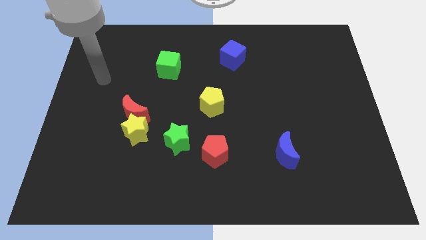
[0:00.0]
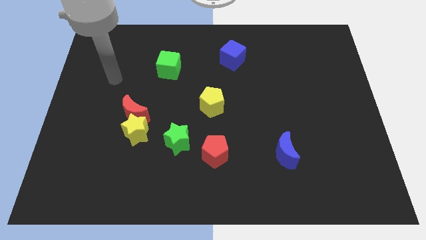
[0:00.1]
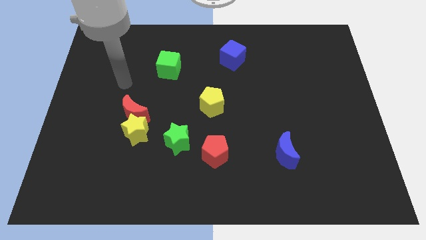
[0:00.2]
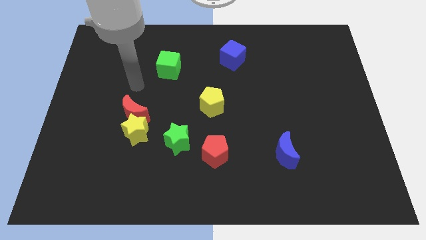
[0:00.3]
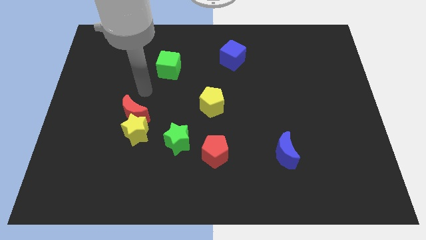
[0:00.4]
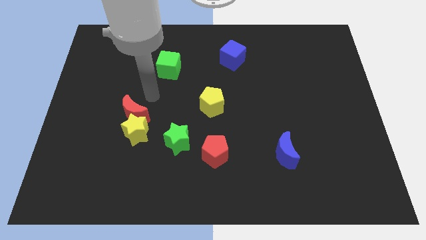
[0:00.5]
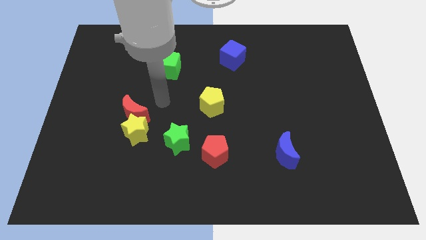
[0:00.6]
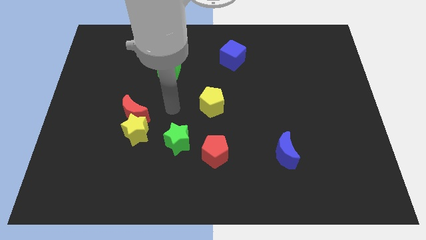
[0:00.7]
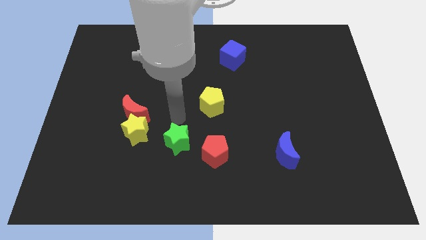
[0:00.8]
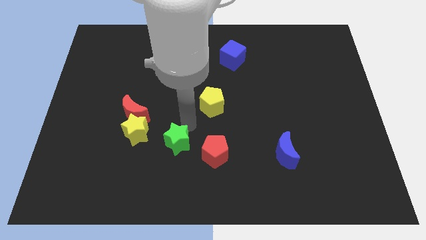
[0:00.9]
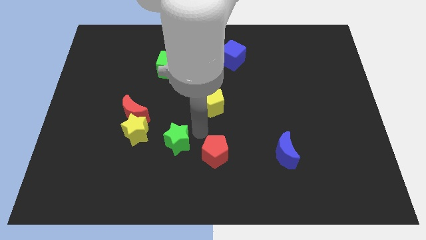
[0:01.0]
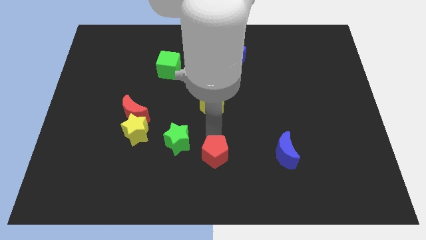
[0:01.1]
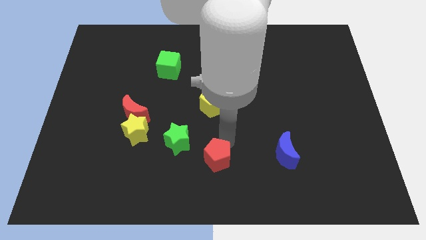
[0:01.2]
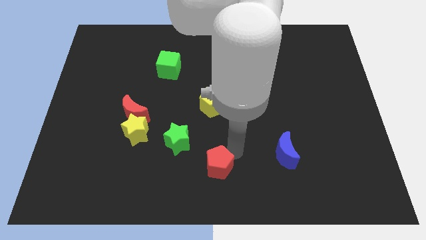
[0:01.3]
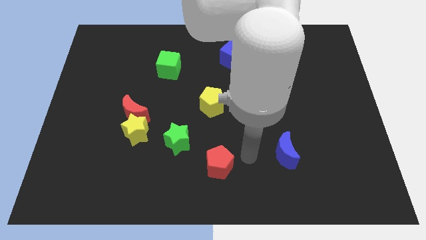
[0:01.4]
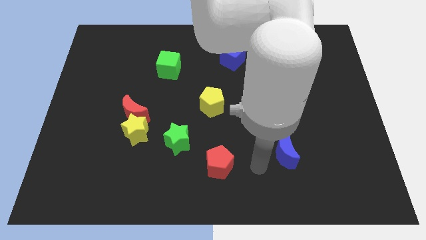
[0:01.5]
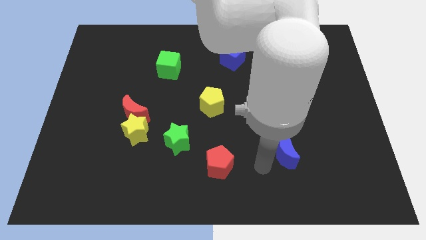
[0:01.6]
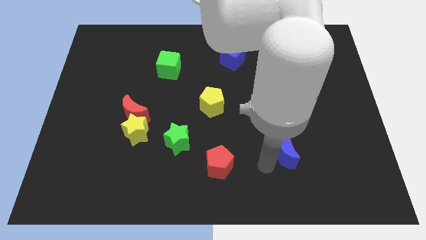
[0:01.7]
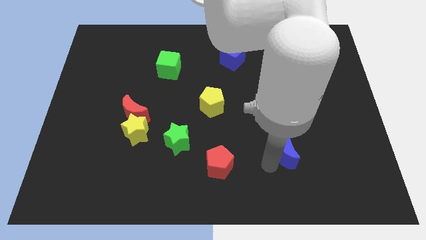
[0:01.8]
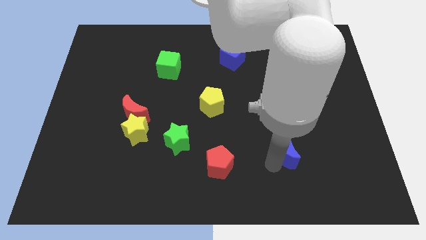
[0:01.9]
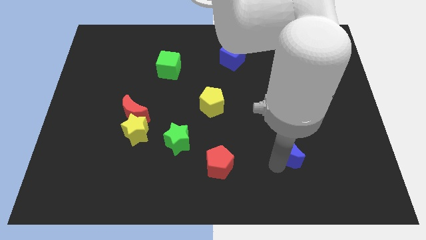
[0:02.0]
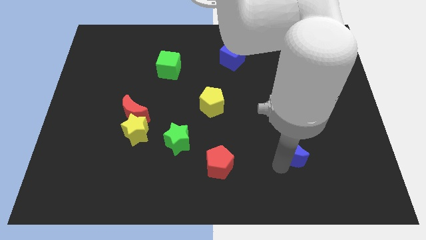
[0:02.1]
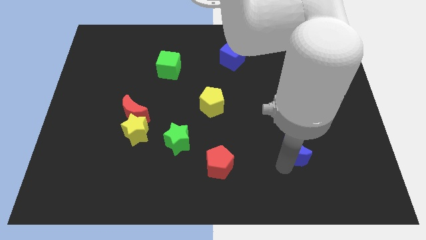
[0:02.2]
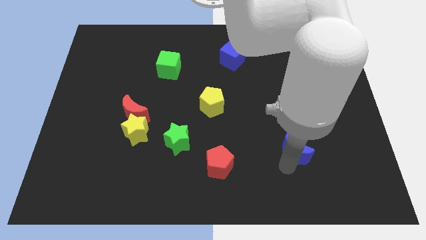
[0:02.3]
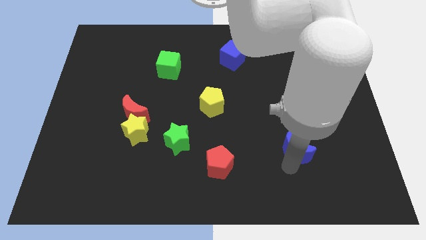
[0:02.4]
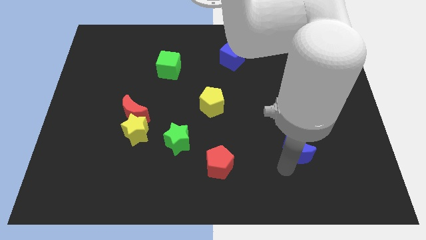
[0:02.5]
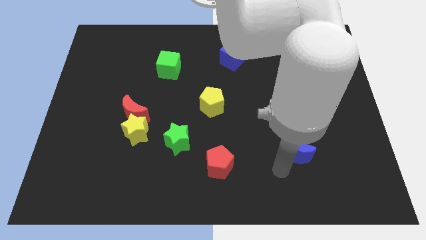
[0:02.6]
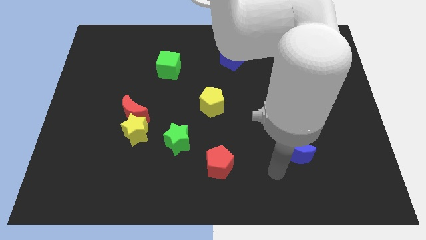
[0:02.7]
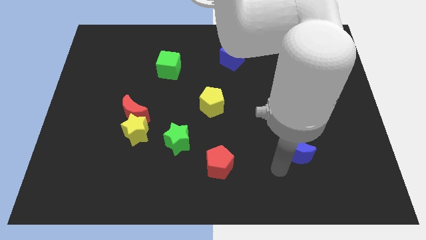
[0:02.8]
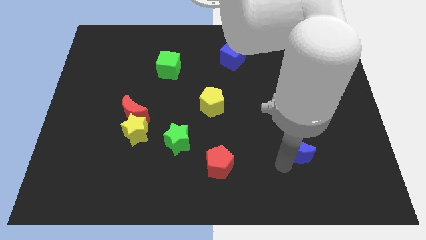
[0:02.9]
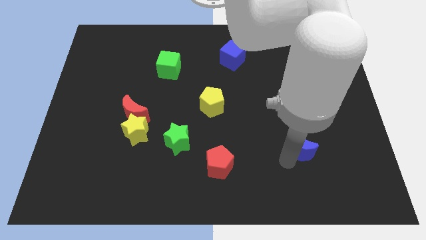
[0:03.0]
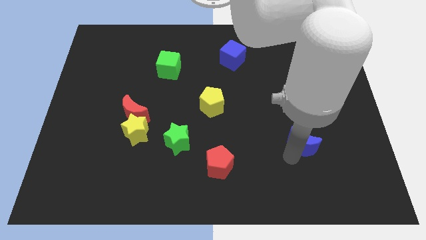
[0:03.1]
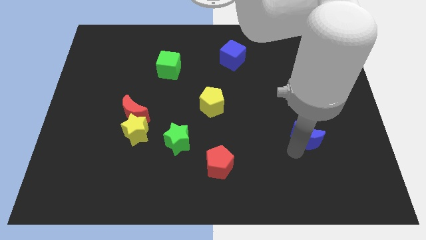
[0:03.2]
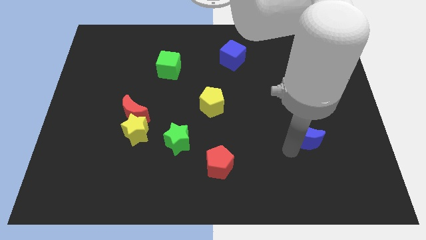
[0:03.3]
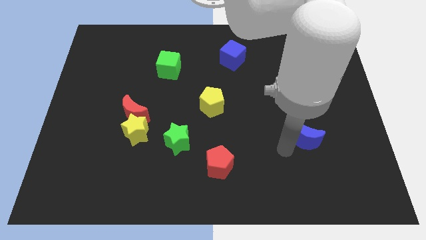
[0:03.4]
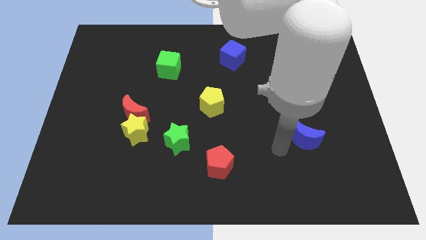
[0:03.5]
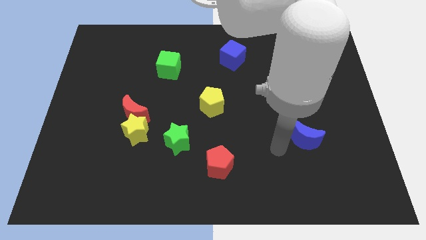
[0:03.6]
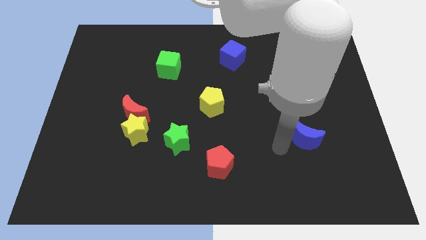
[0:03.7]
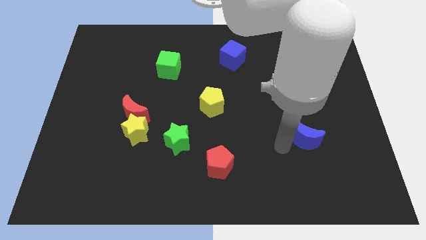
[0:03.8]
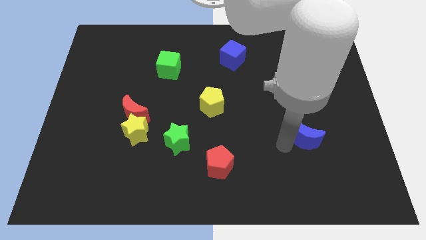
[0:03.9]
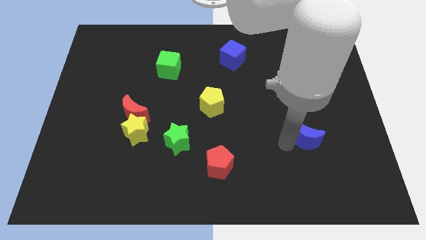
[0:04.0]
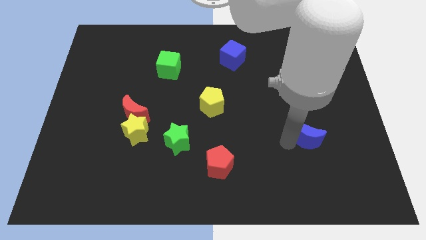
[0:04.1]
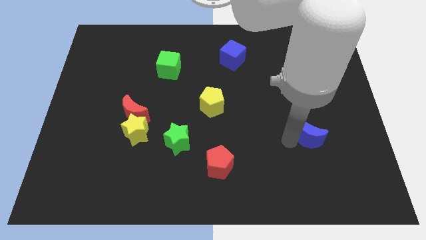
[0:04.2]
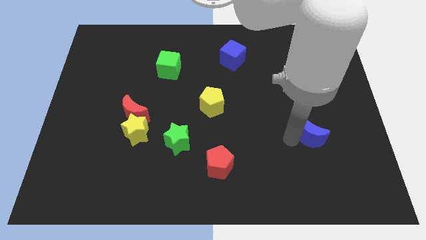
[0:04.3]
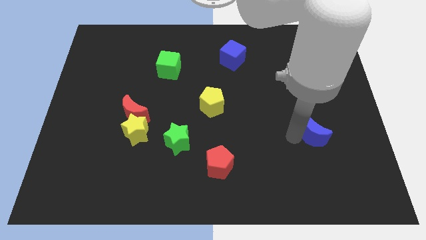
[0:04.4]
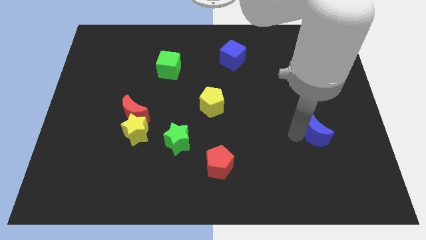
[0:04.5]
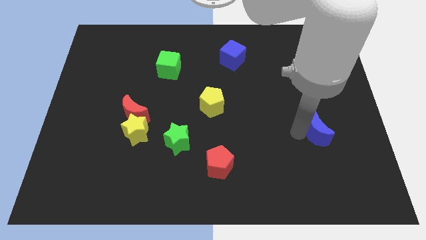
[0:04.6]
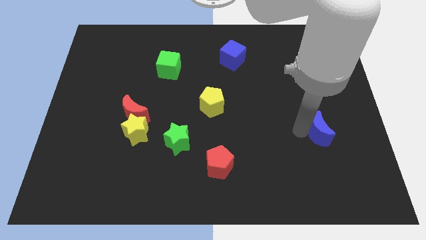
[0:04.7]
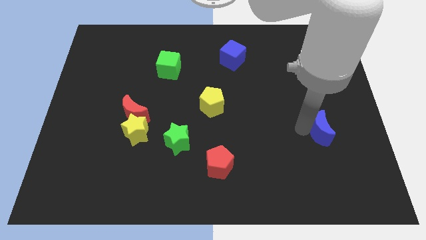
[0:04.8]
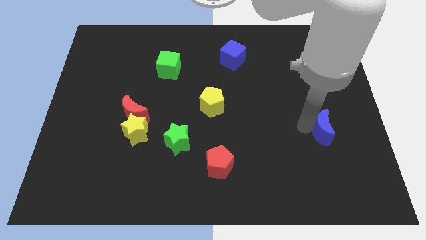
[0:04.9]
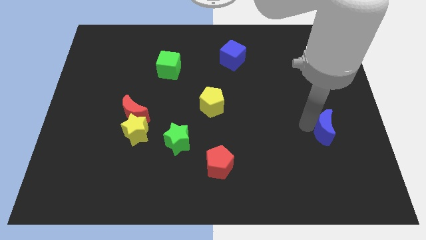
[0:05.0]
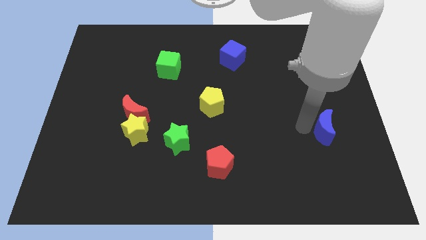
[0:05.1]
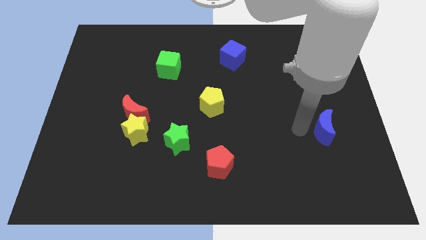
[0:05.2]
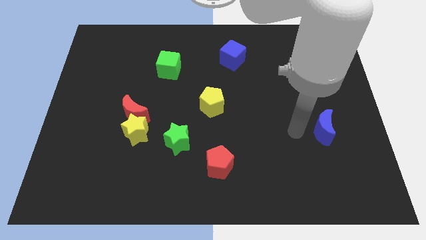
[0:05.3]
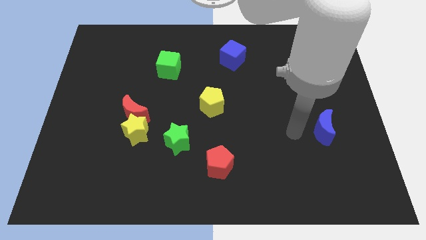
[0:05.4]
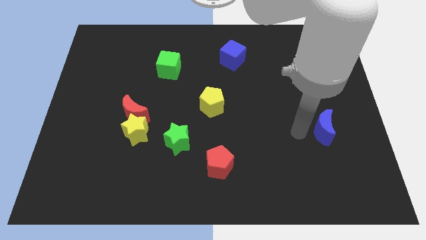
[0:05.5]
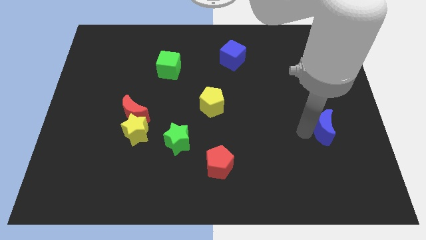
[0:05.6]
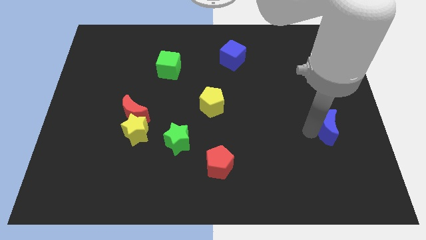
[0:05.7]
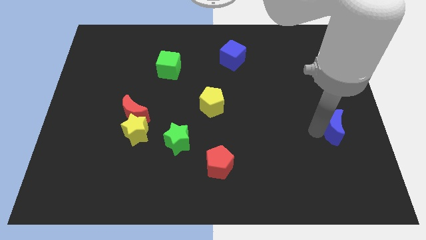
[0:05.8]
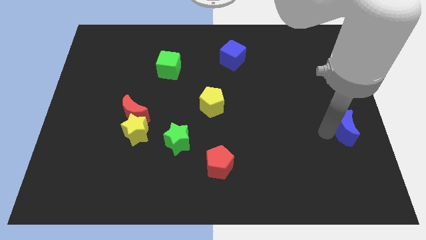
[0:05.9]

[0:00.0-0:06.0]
slide the blue moon to the right side
